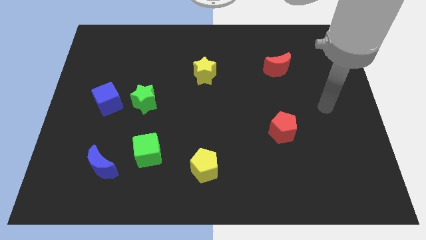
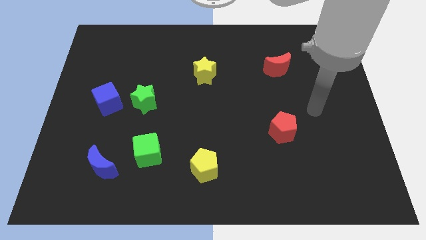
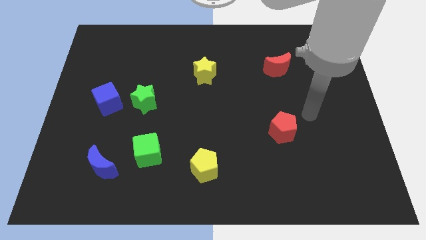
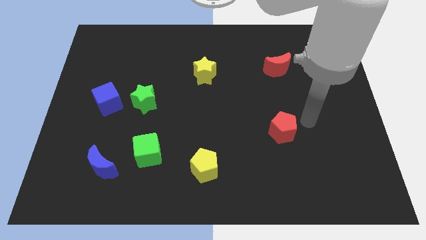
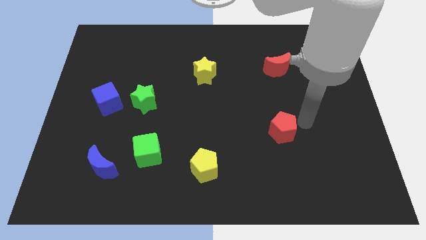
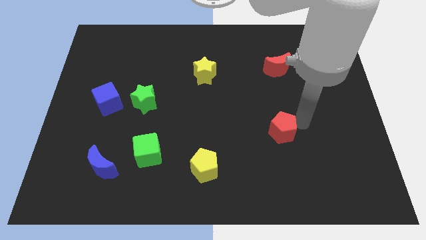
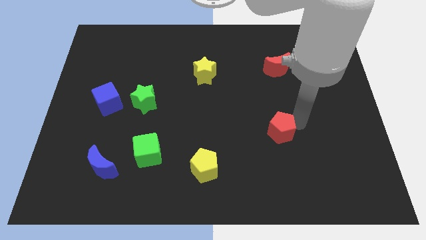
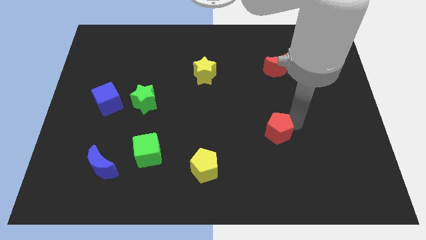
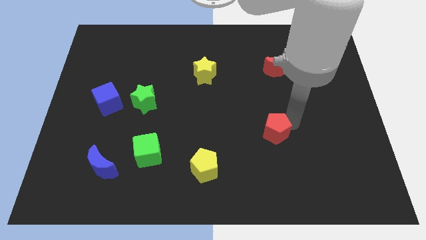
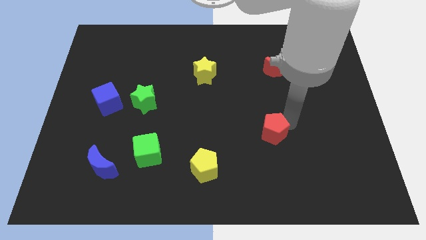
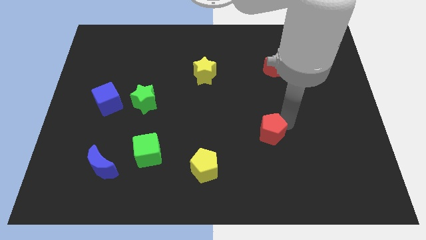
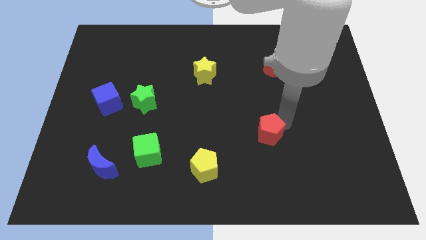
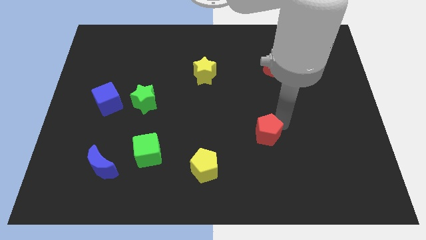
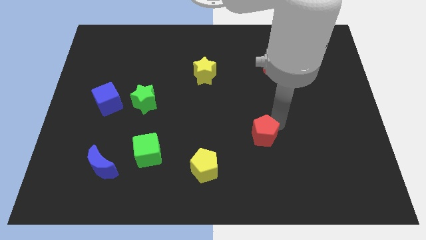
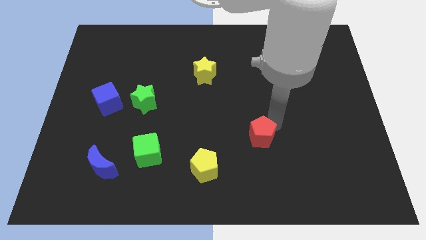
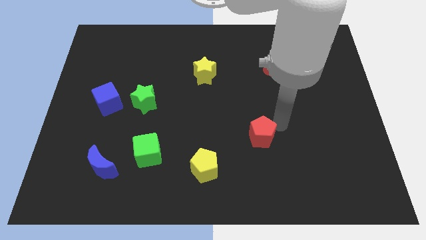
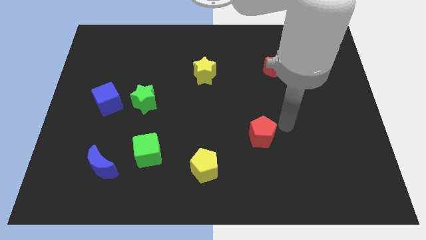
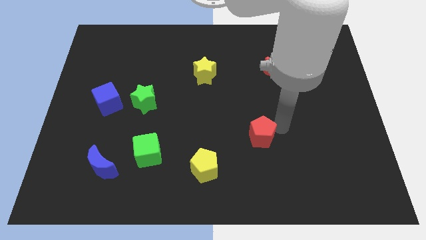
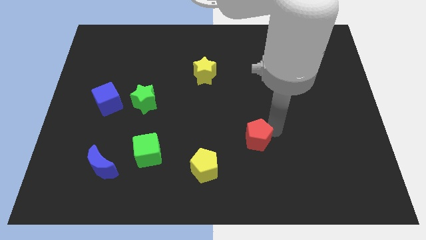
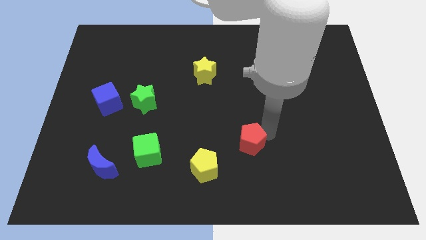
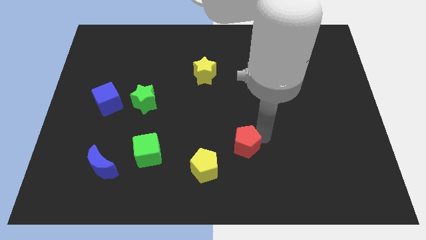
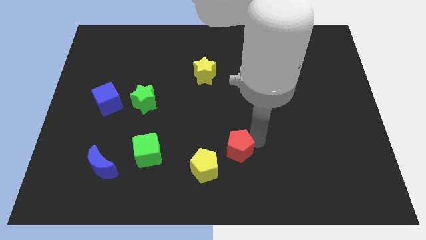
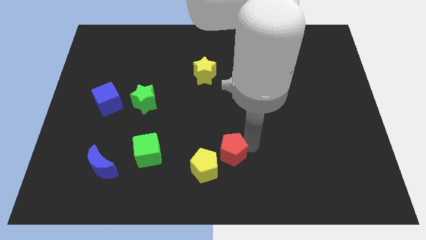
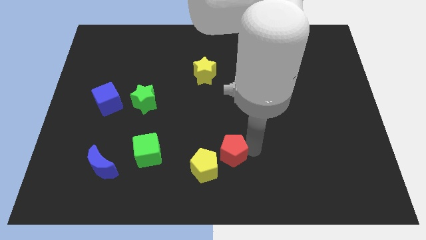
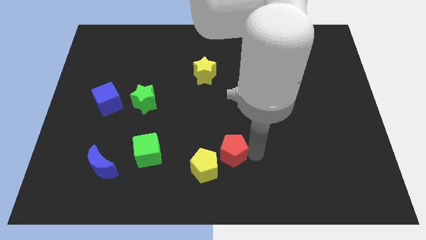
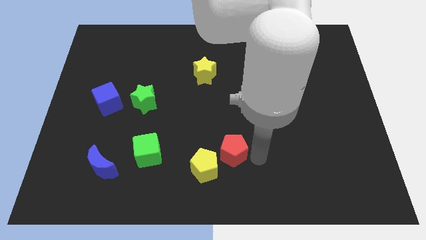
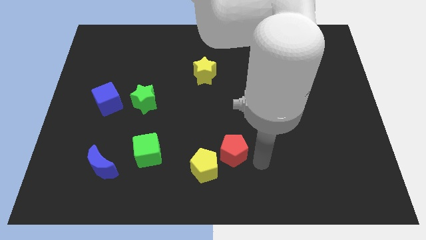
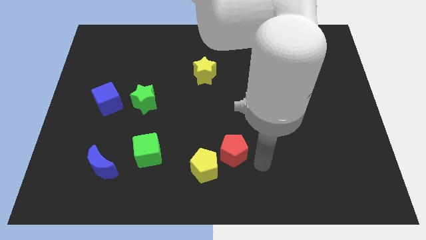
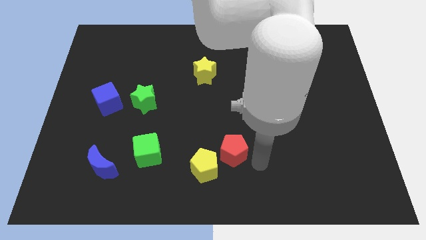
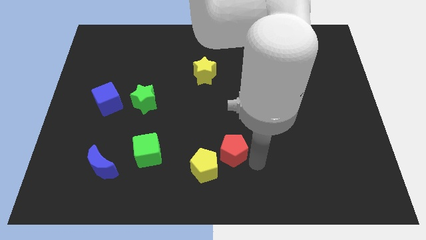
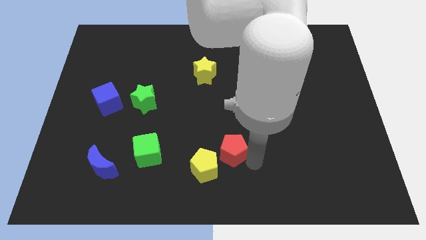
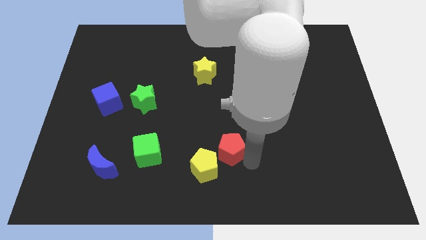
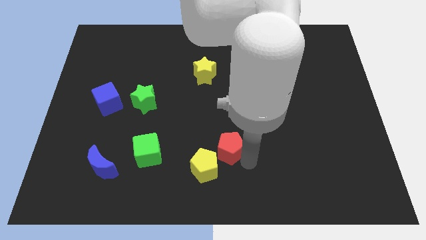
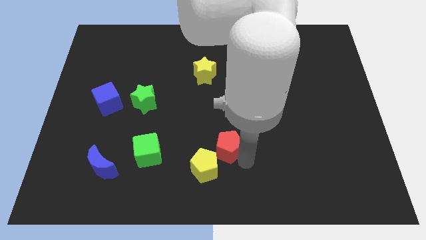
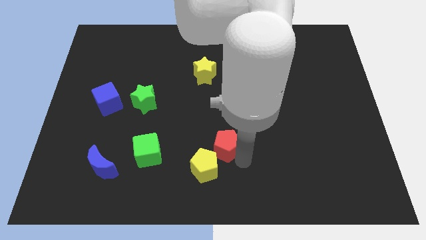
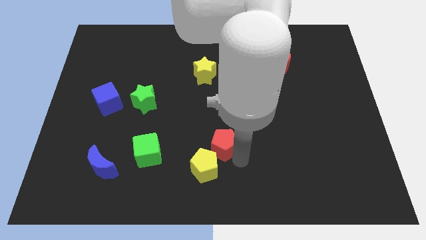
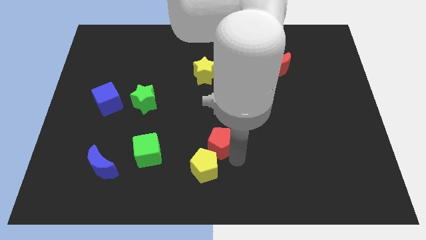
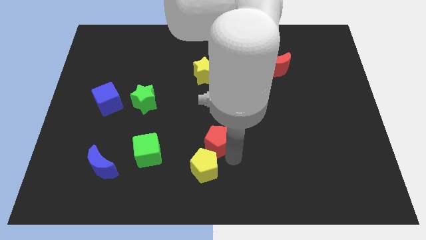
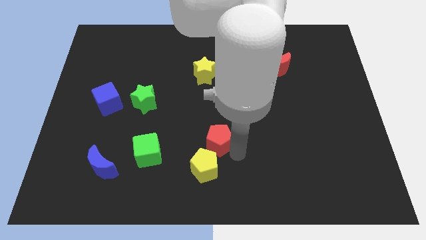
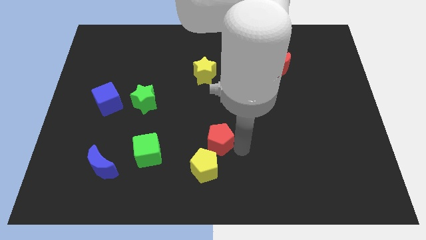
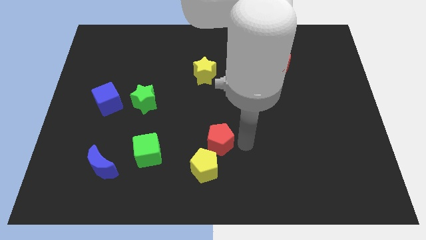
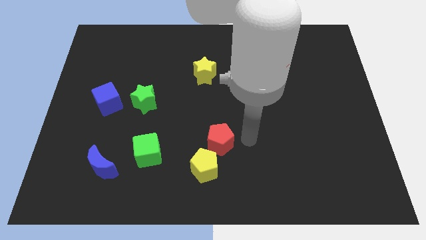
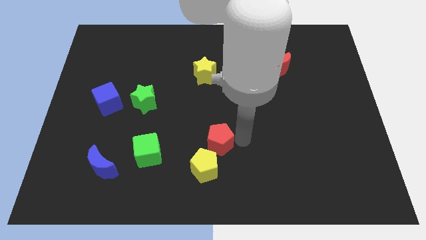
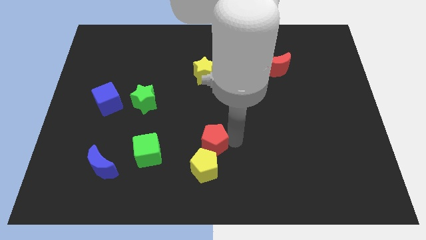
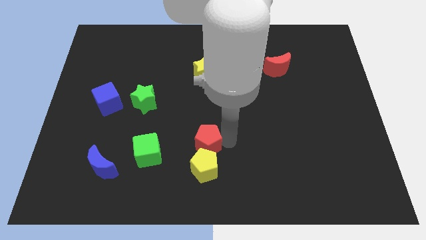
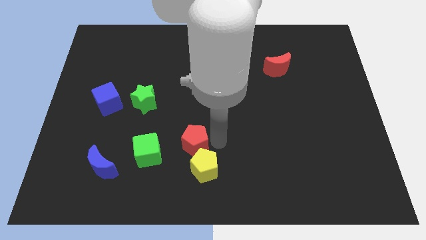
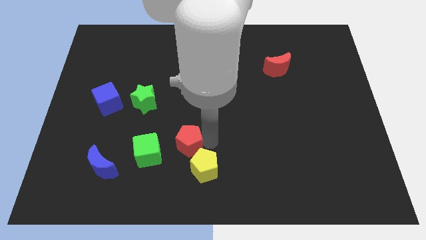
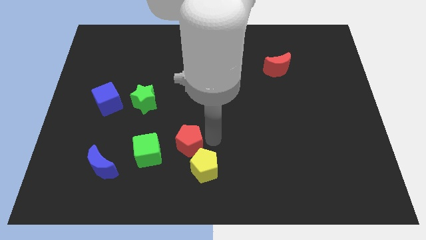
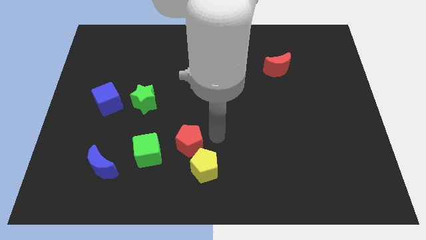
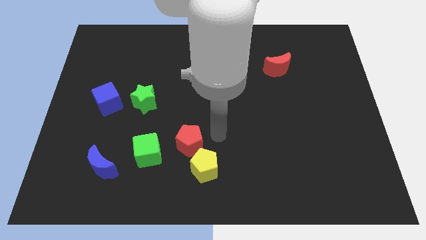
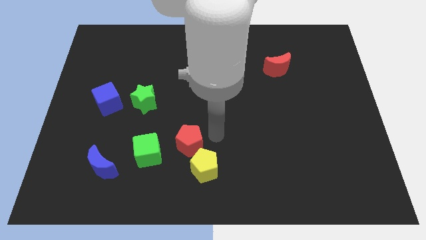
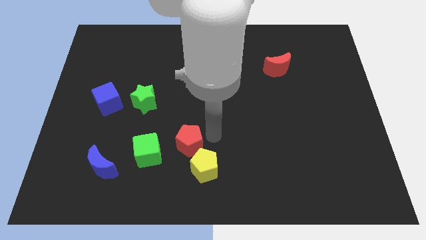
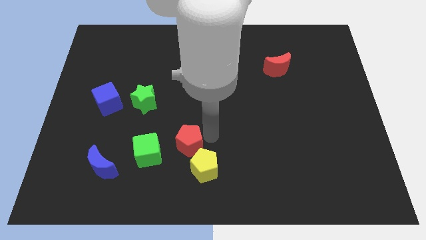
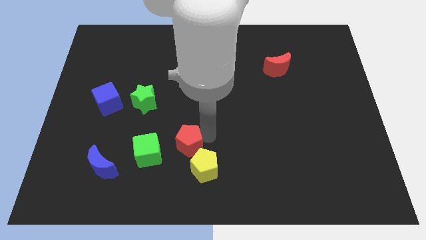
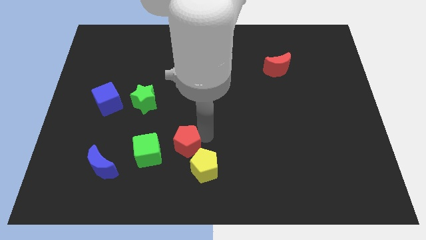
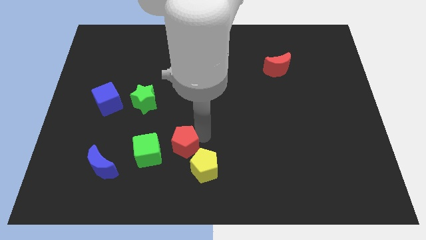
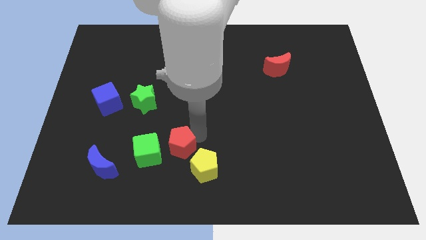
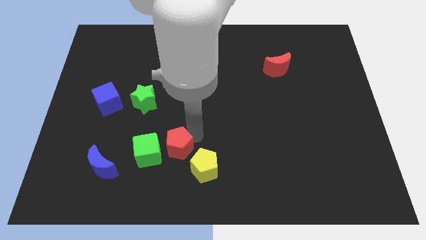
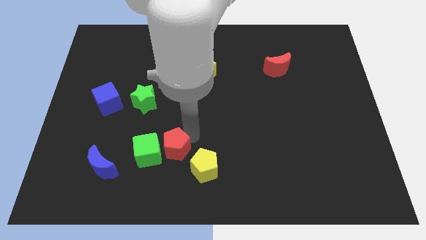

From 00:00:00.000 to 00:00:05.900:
move the red pentagon close to the green cube

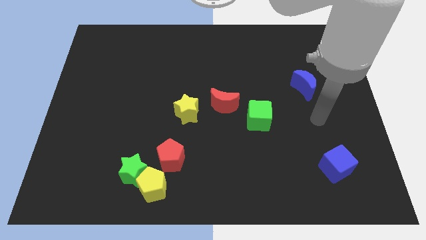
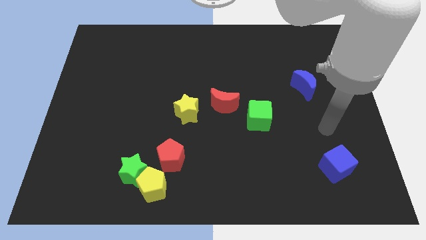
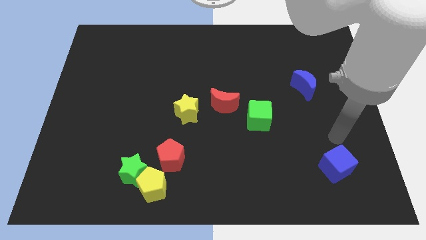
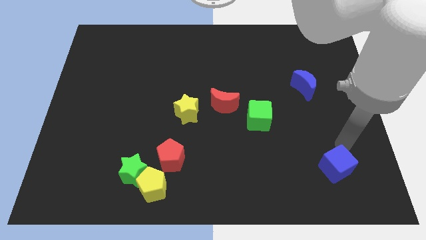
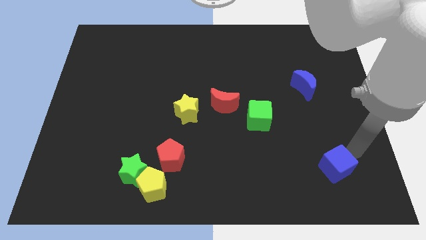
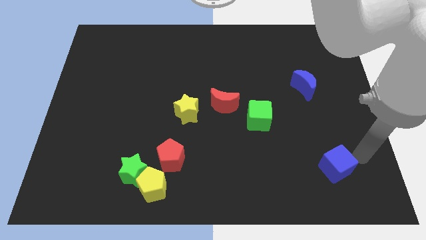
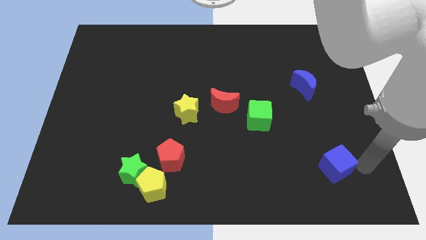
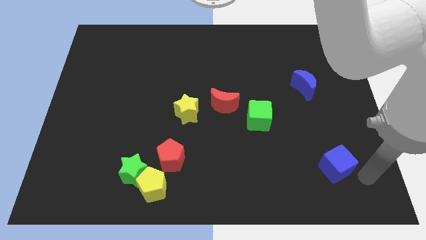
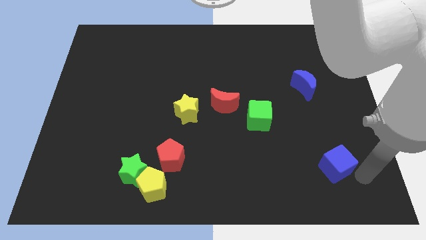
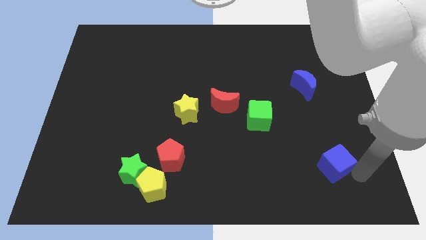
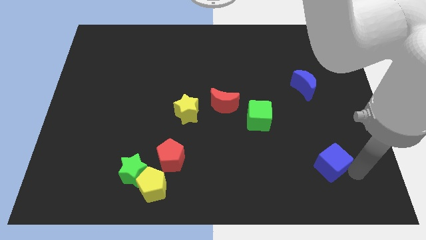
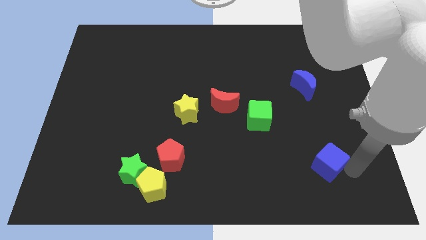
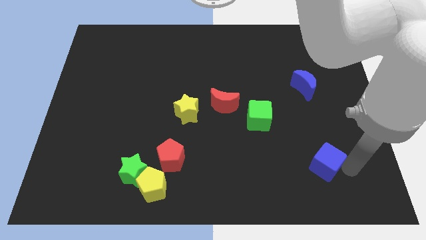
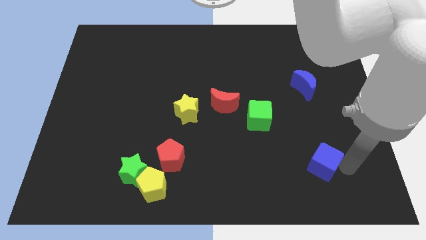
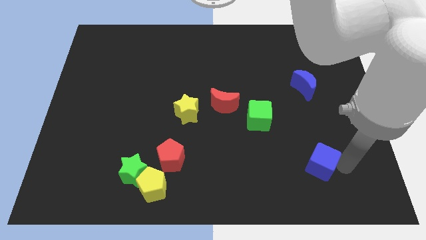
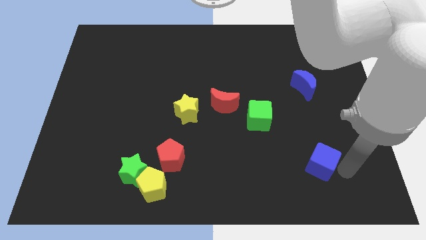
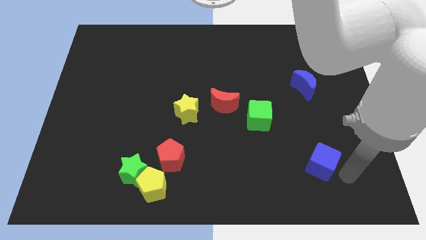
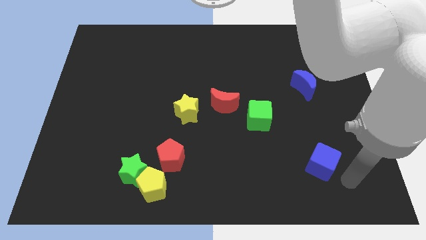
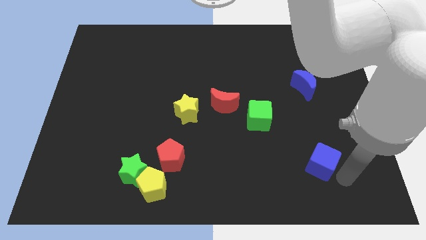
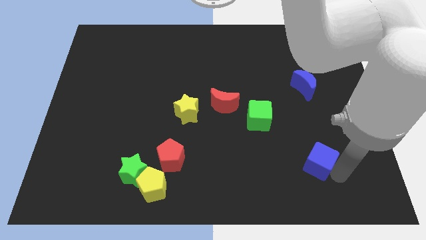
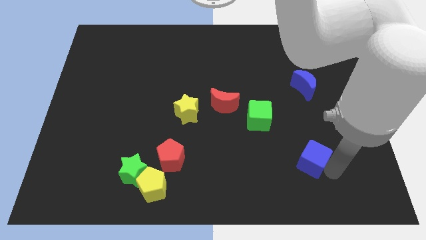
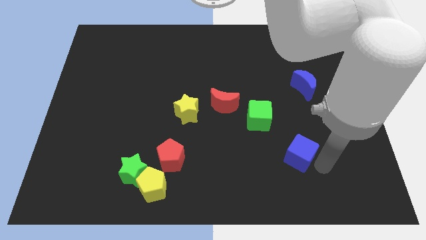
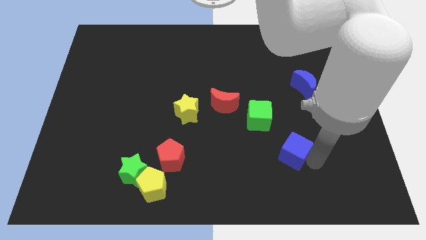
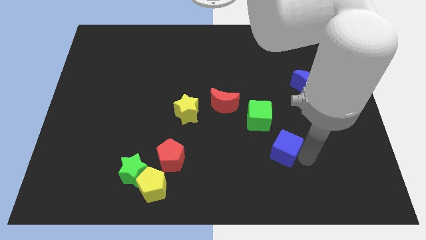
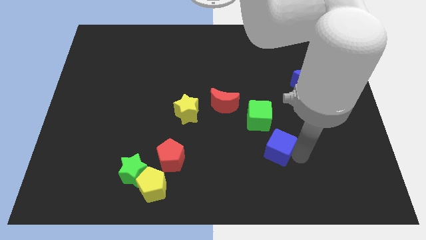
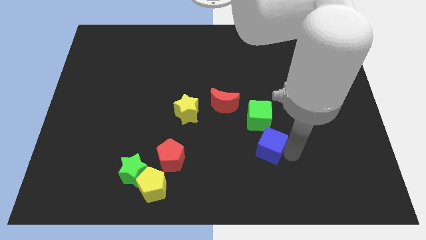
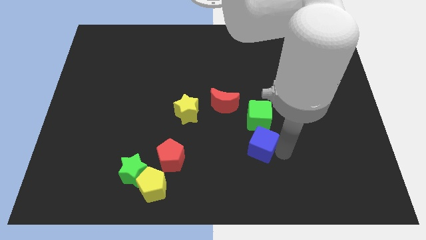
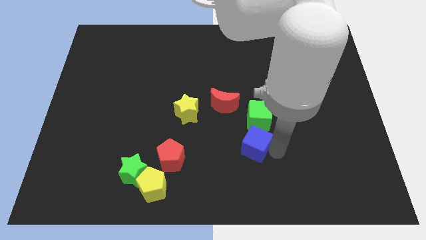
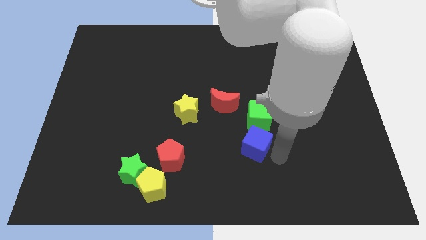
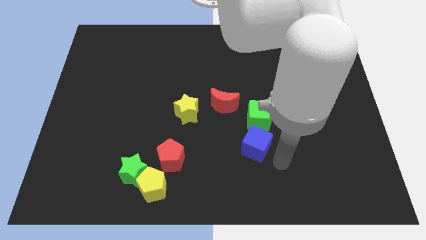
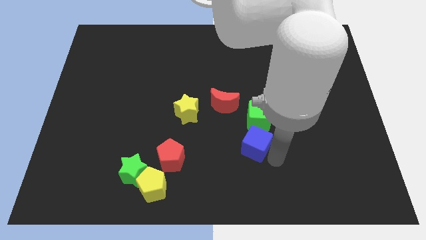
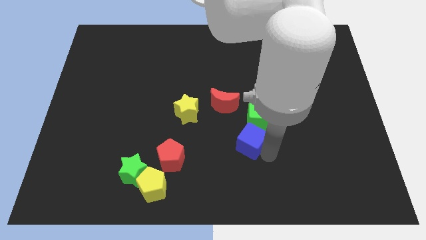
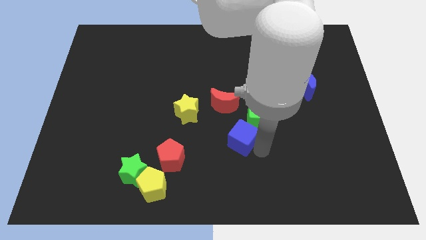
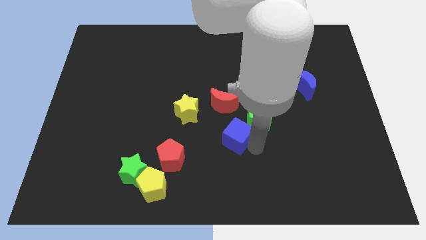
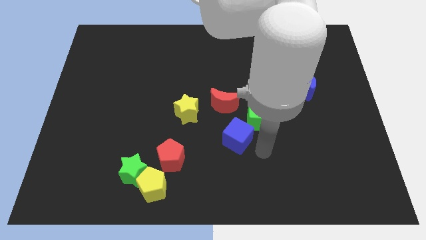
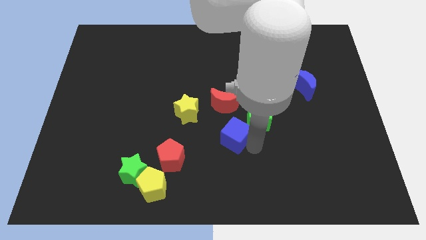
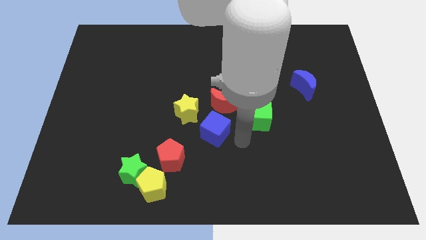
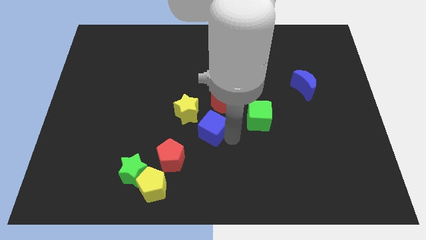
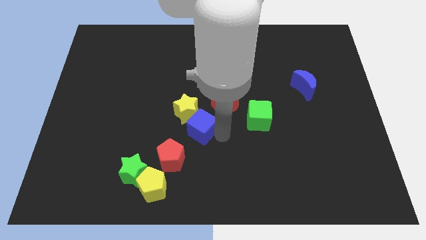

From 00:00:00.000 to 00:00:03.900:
move the blue cube close to the yellow star
